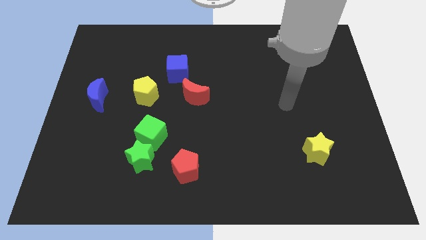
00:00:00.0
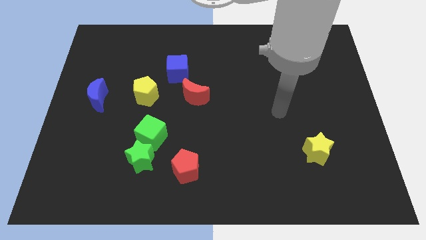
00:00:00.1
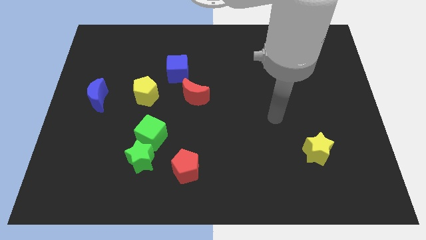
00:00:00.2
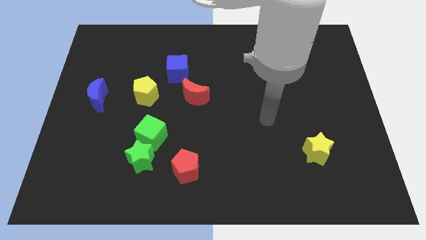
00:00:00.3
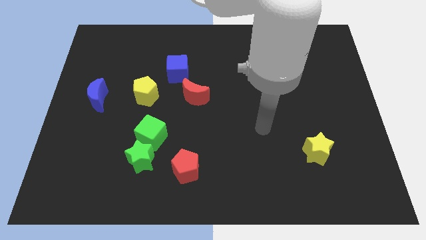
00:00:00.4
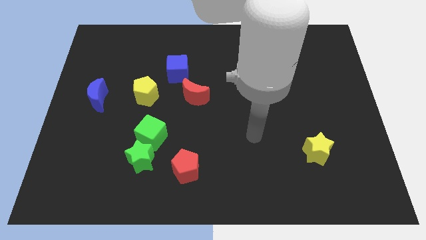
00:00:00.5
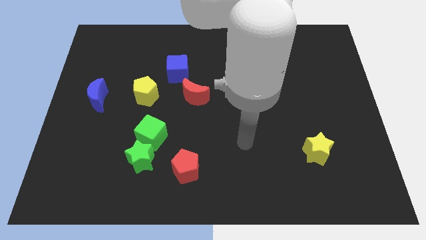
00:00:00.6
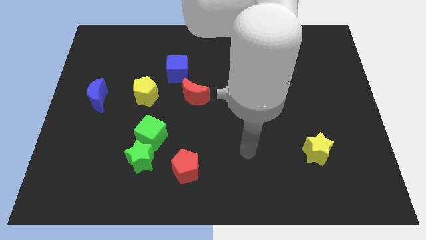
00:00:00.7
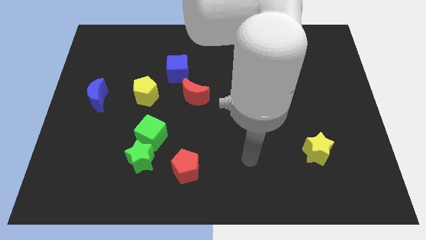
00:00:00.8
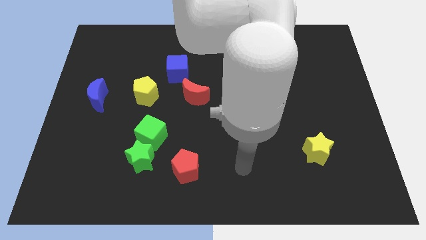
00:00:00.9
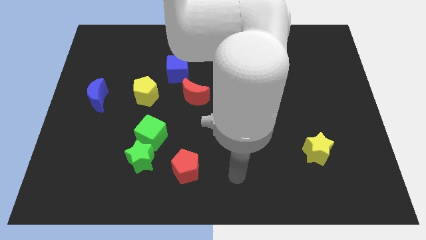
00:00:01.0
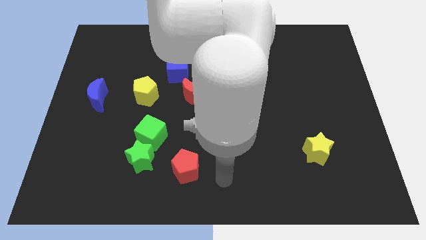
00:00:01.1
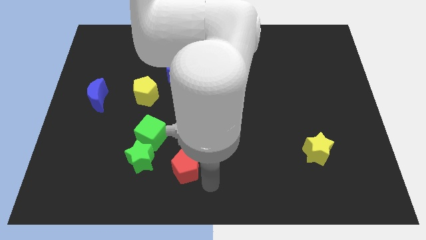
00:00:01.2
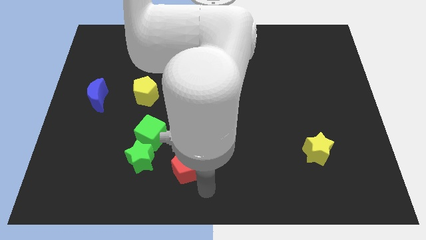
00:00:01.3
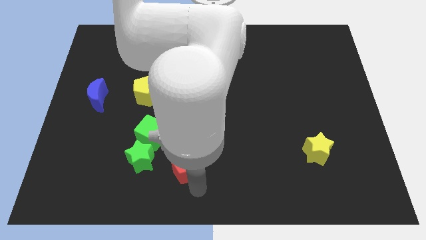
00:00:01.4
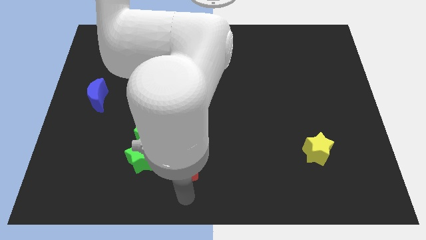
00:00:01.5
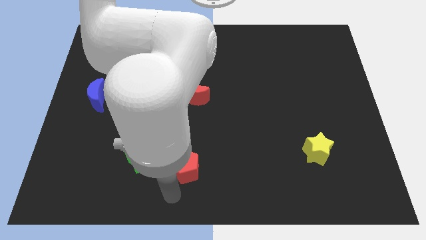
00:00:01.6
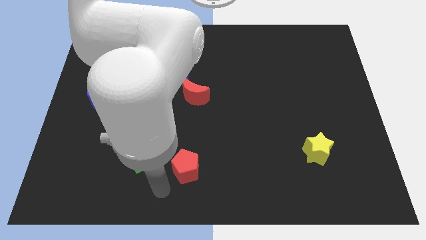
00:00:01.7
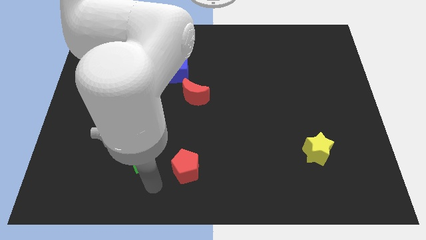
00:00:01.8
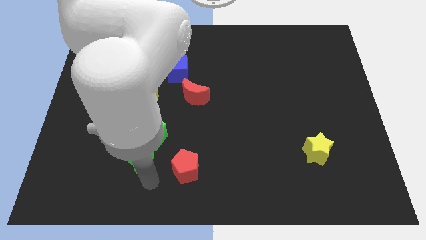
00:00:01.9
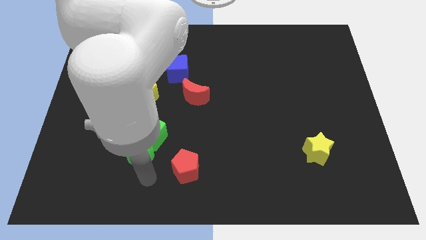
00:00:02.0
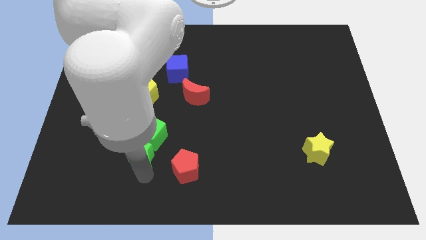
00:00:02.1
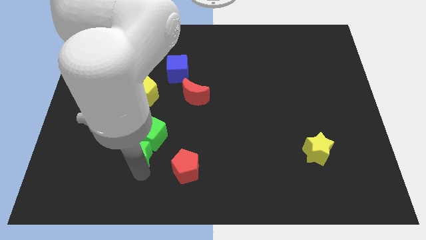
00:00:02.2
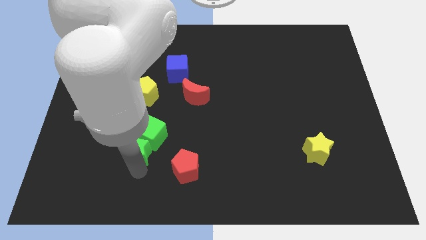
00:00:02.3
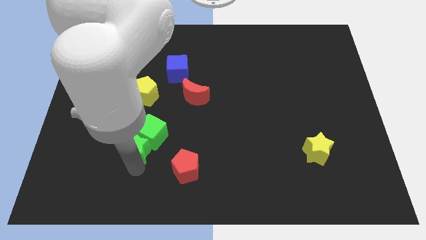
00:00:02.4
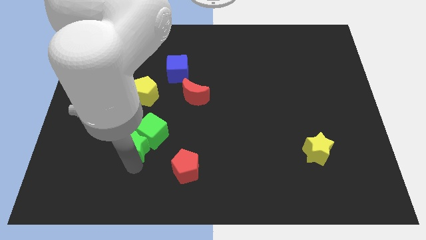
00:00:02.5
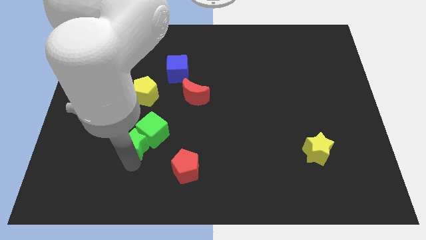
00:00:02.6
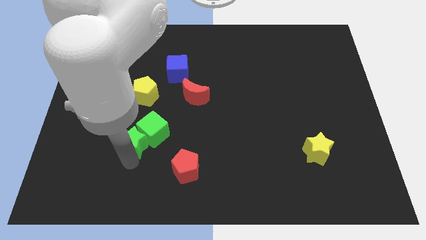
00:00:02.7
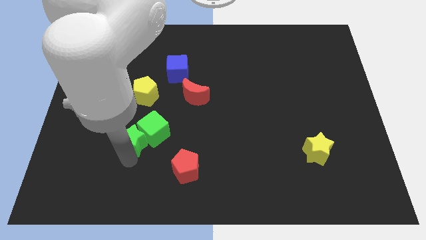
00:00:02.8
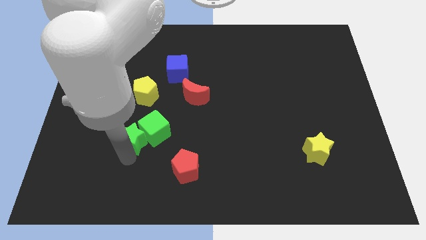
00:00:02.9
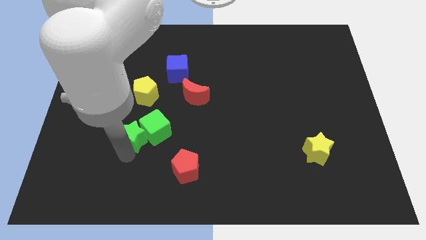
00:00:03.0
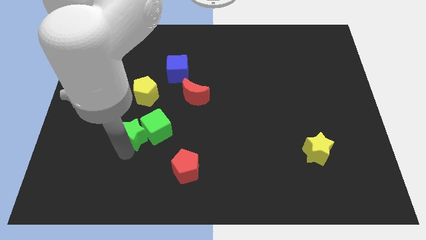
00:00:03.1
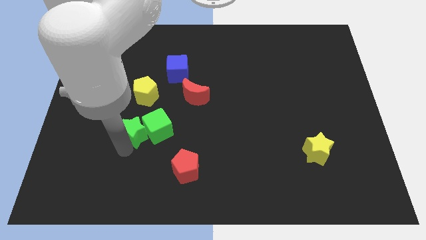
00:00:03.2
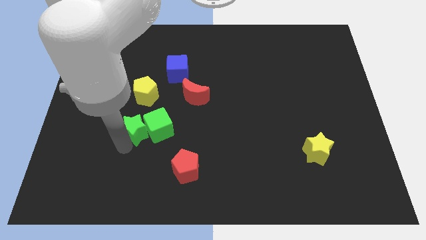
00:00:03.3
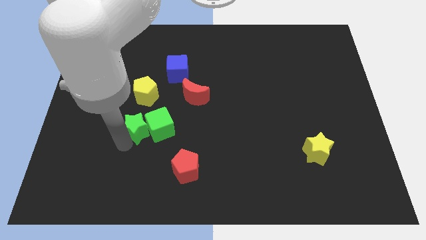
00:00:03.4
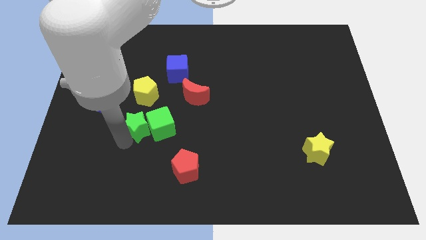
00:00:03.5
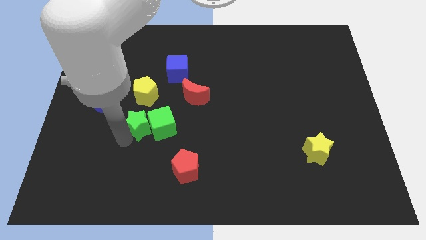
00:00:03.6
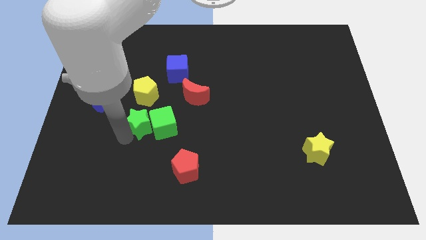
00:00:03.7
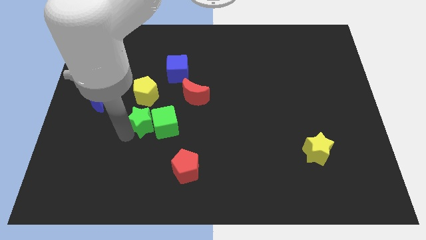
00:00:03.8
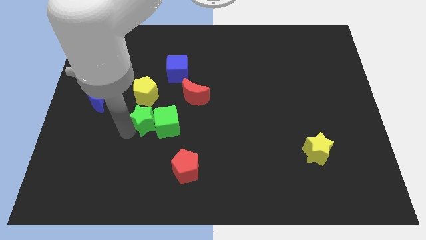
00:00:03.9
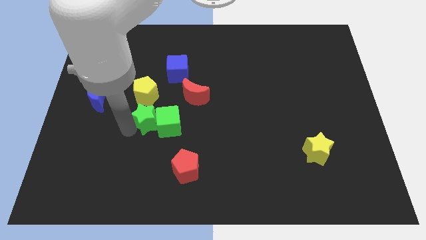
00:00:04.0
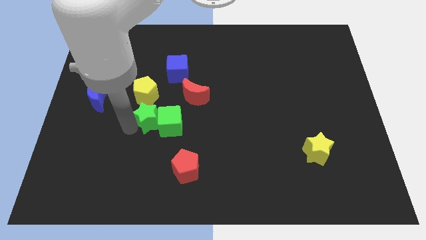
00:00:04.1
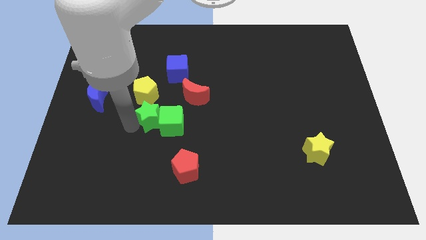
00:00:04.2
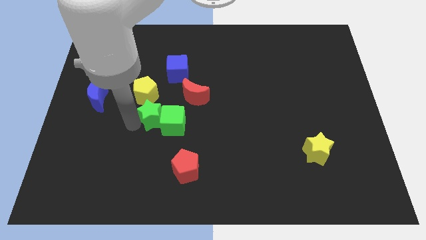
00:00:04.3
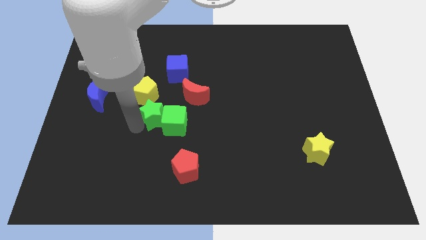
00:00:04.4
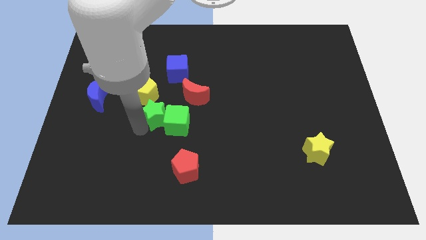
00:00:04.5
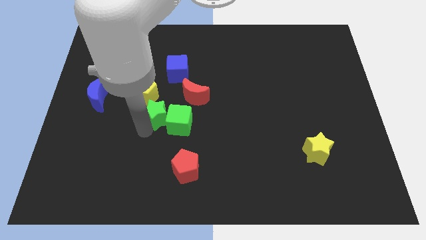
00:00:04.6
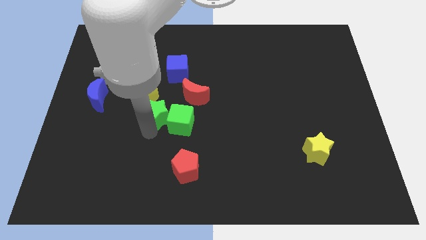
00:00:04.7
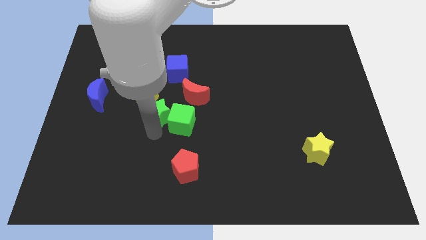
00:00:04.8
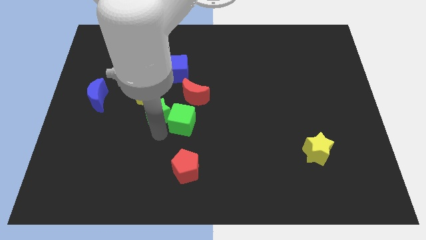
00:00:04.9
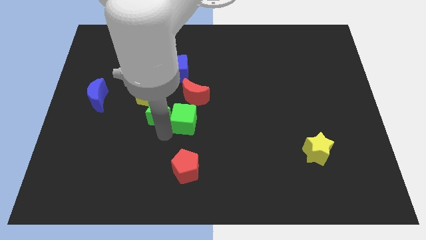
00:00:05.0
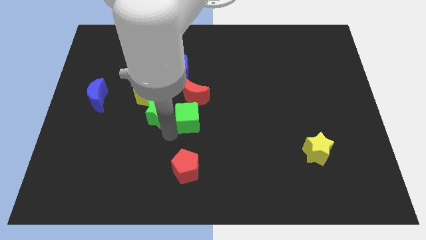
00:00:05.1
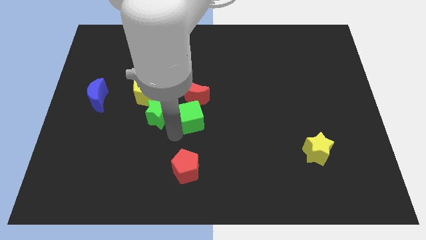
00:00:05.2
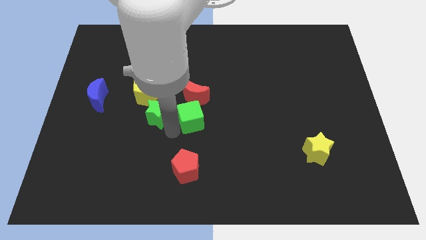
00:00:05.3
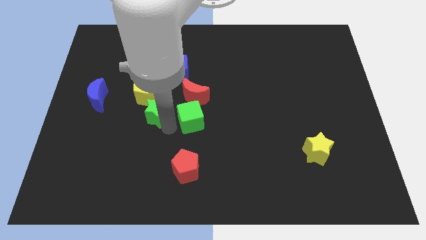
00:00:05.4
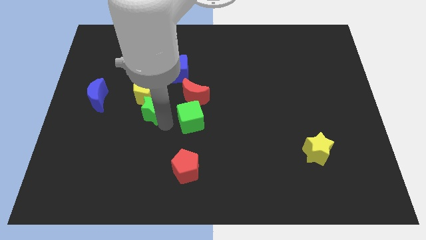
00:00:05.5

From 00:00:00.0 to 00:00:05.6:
push the green star close to the yellow pentagon

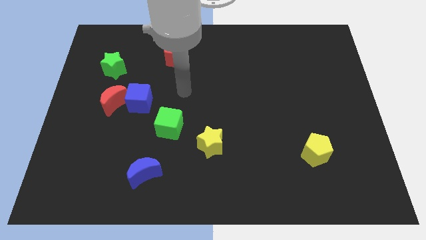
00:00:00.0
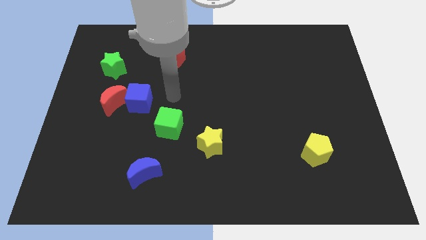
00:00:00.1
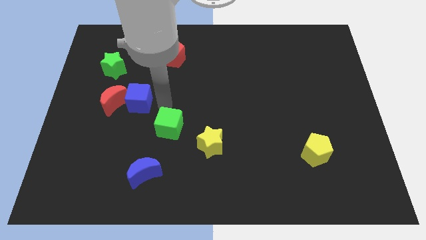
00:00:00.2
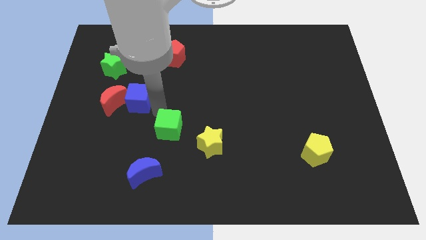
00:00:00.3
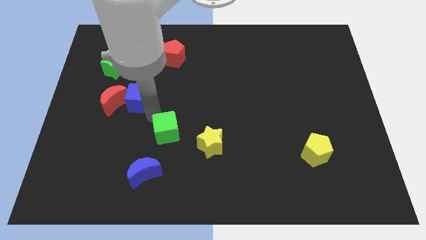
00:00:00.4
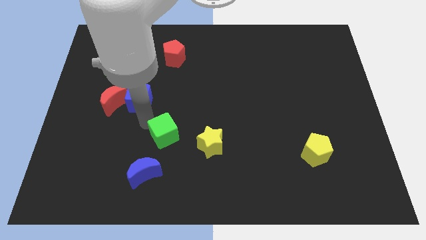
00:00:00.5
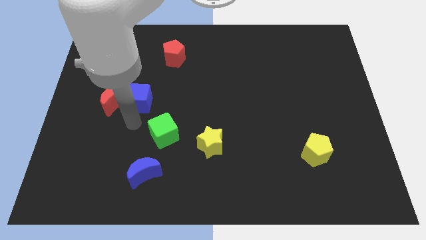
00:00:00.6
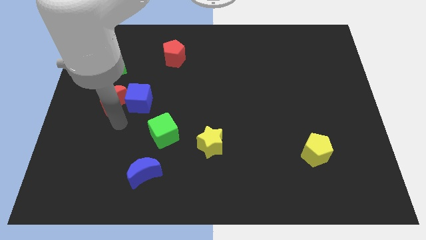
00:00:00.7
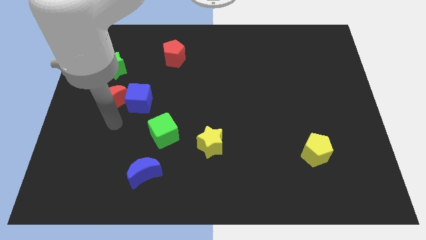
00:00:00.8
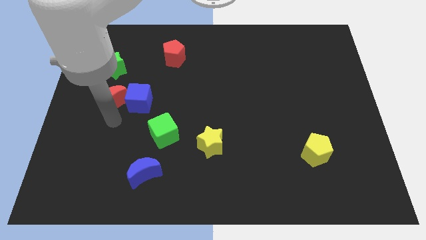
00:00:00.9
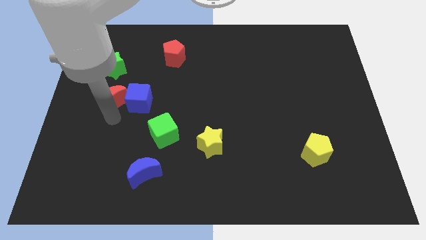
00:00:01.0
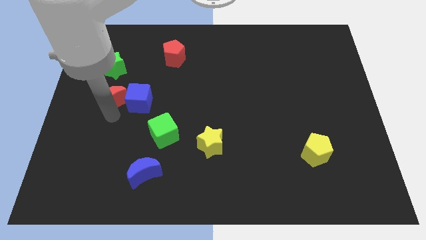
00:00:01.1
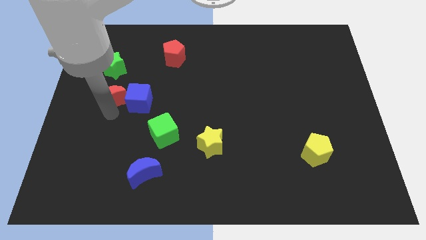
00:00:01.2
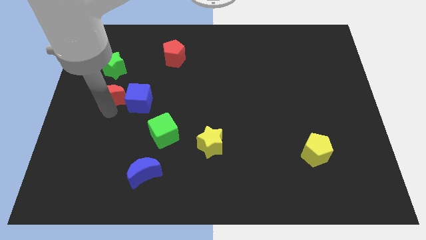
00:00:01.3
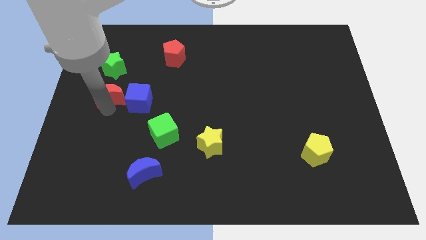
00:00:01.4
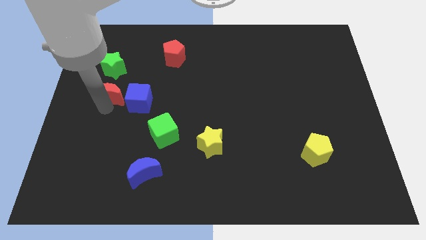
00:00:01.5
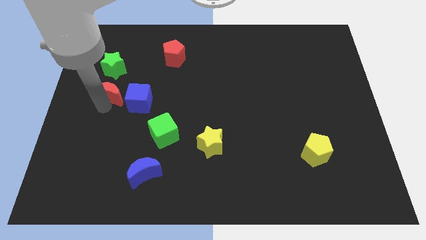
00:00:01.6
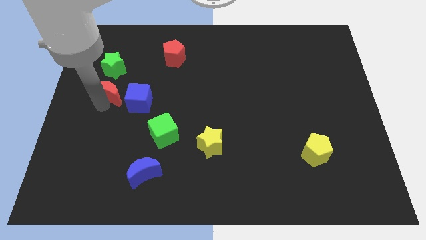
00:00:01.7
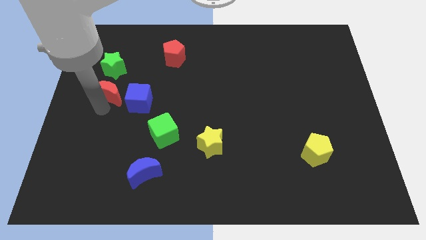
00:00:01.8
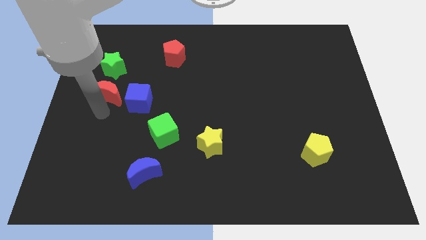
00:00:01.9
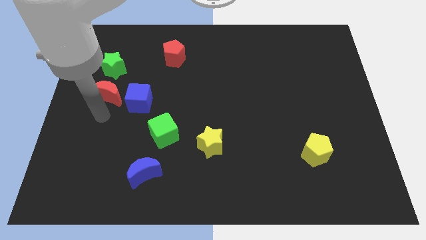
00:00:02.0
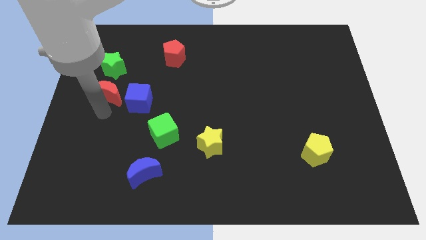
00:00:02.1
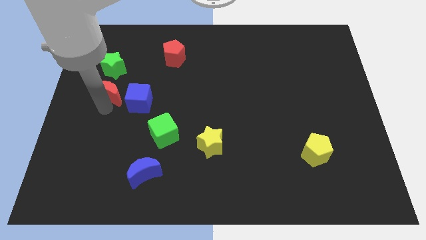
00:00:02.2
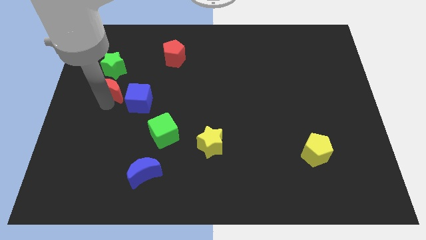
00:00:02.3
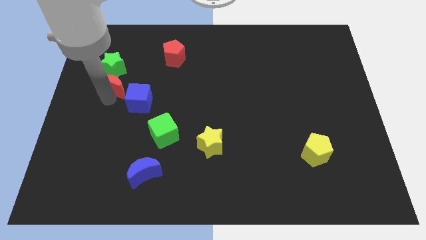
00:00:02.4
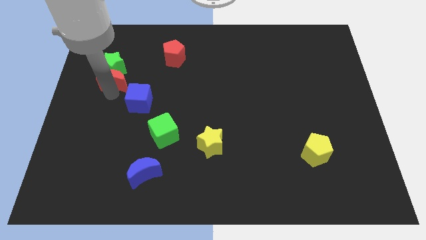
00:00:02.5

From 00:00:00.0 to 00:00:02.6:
put the red moon towards the green star
